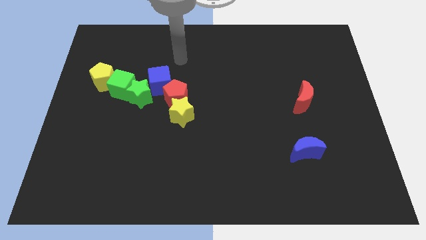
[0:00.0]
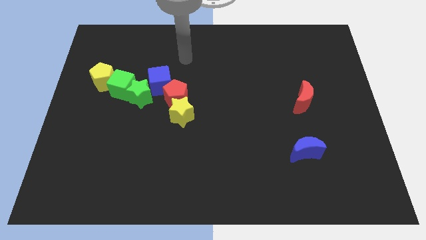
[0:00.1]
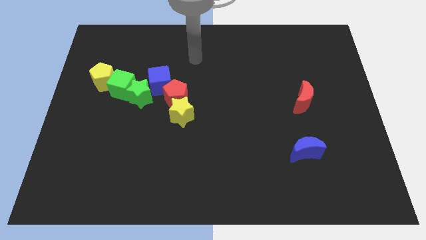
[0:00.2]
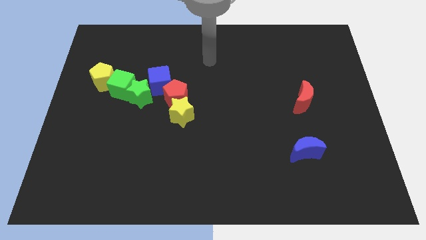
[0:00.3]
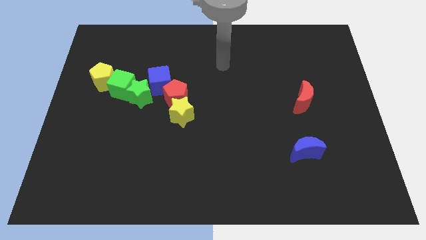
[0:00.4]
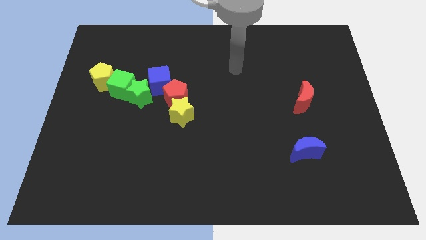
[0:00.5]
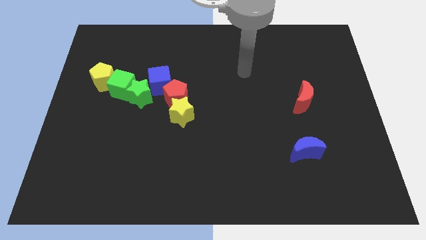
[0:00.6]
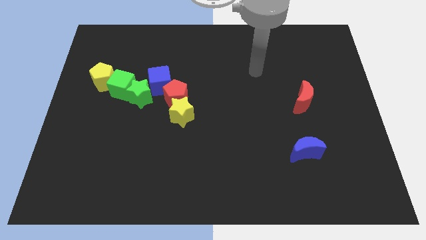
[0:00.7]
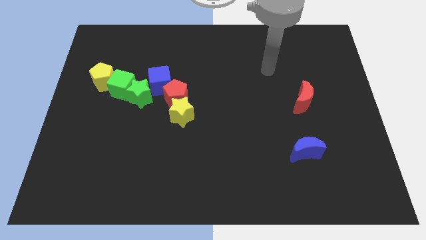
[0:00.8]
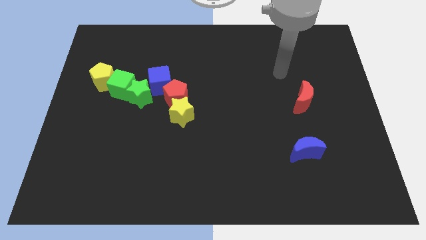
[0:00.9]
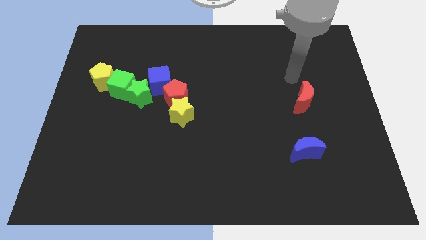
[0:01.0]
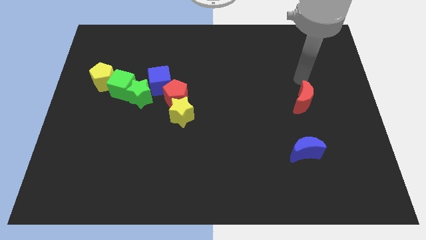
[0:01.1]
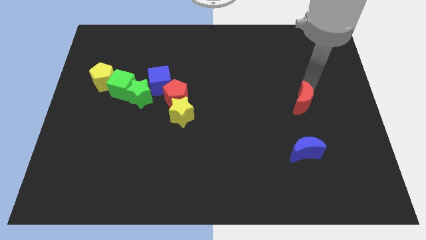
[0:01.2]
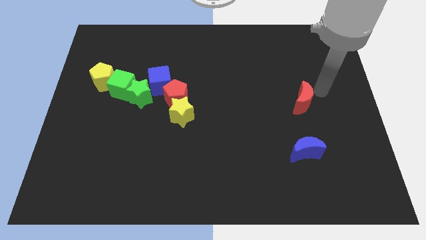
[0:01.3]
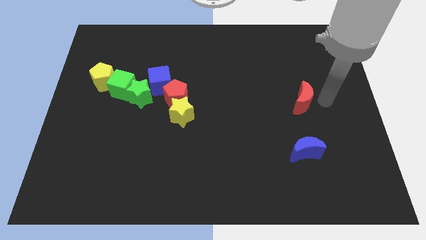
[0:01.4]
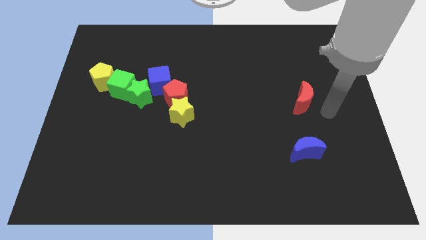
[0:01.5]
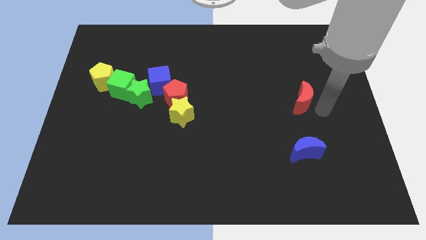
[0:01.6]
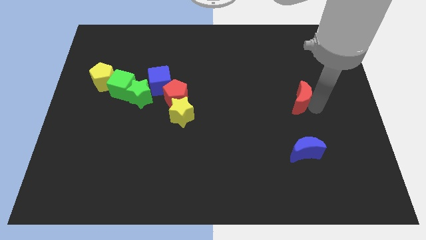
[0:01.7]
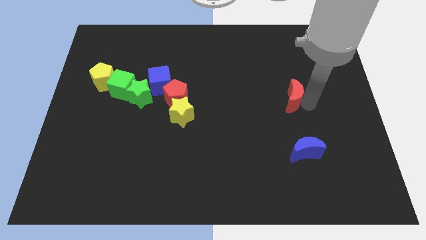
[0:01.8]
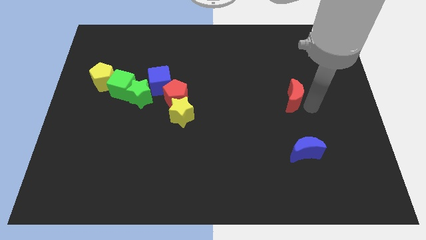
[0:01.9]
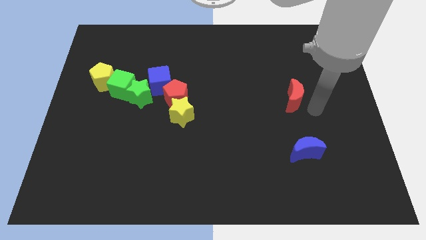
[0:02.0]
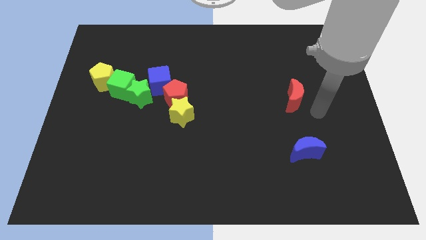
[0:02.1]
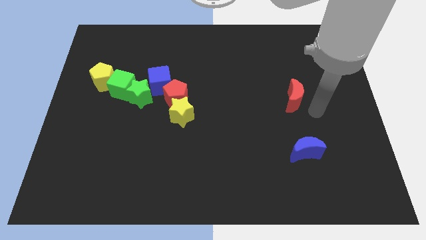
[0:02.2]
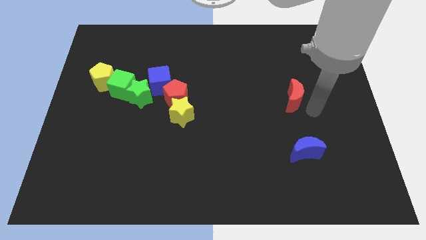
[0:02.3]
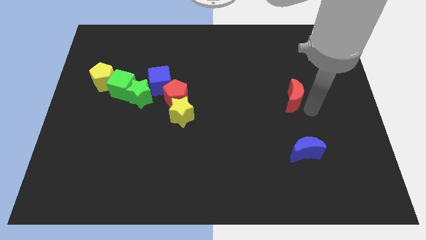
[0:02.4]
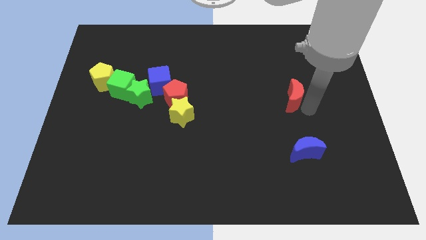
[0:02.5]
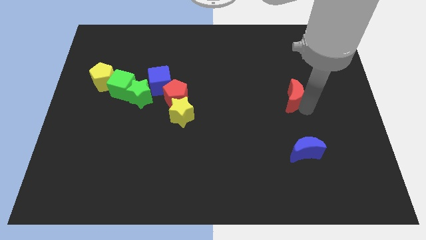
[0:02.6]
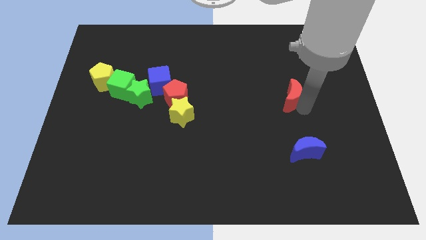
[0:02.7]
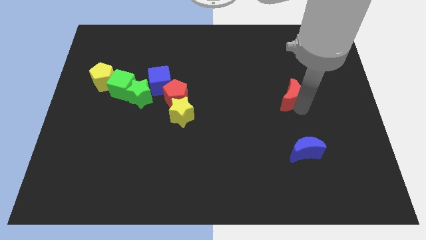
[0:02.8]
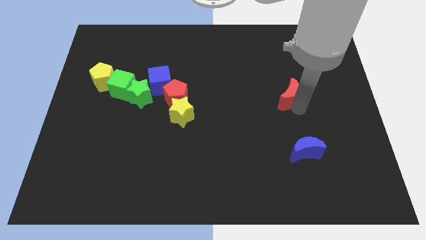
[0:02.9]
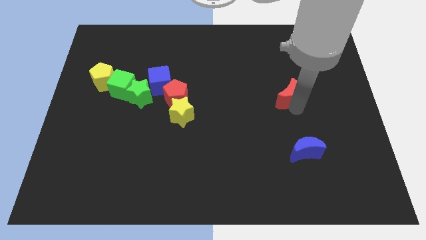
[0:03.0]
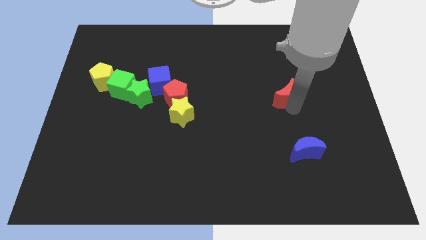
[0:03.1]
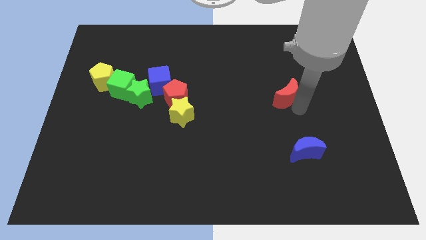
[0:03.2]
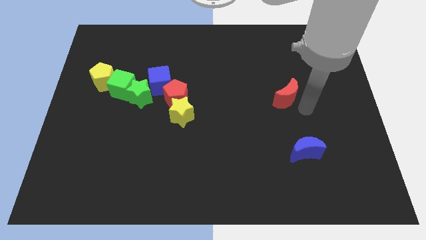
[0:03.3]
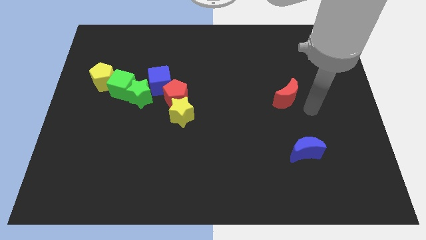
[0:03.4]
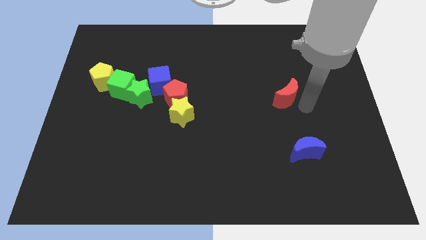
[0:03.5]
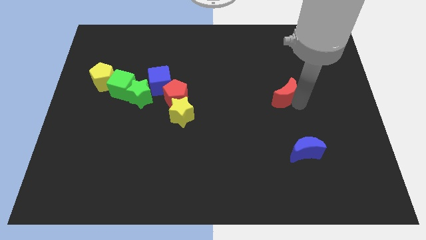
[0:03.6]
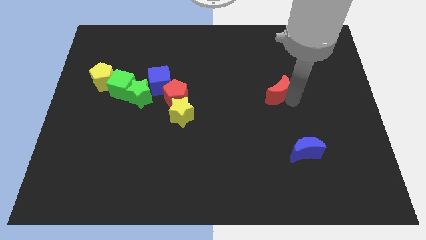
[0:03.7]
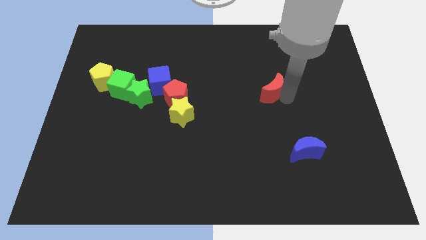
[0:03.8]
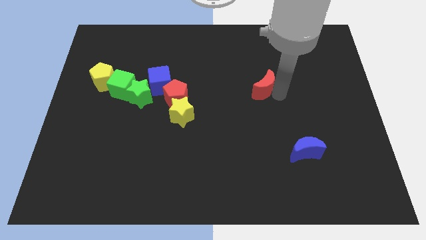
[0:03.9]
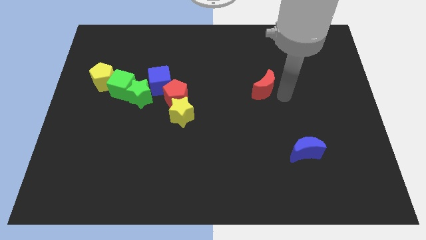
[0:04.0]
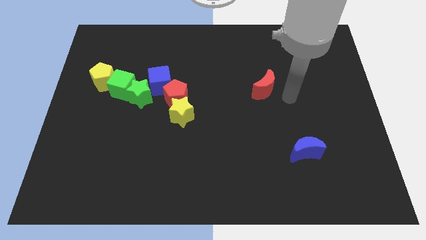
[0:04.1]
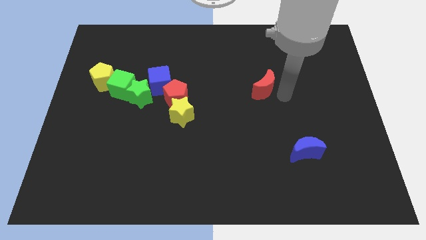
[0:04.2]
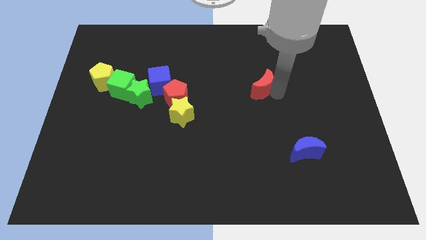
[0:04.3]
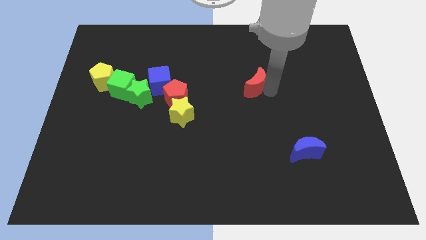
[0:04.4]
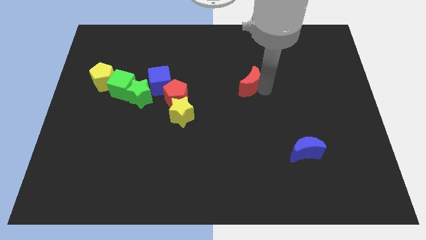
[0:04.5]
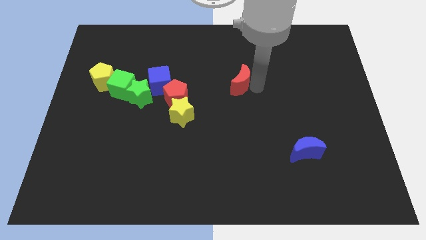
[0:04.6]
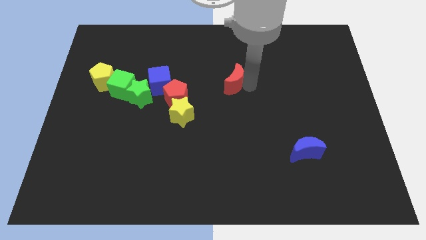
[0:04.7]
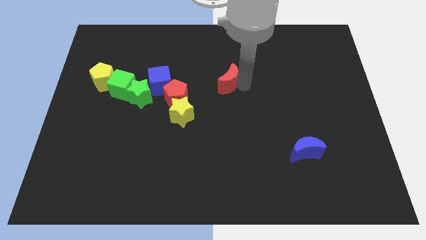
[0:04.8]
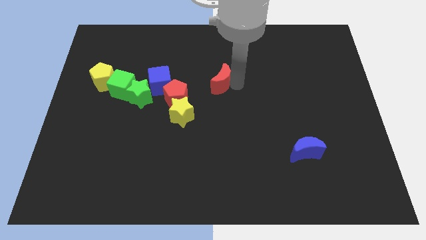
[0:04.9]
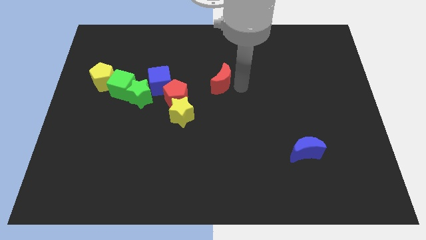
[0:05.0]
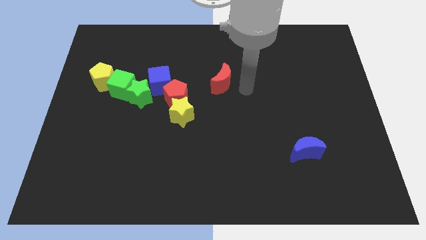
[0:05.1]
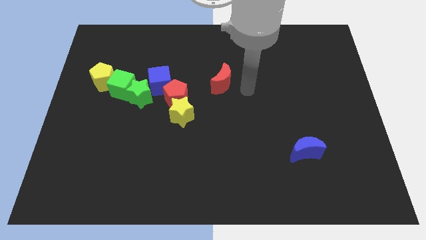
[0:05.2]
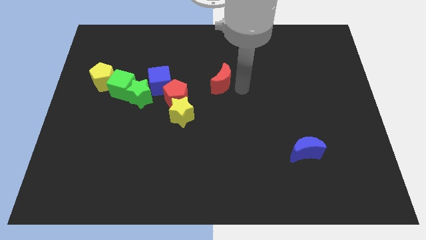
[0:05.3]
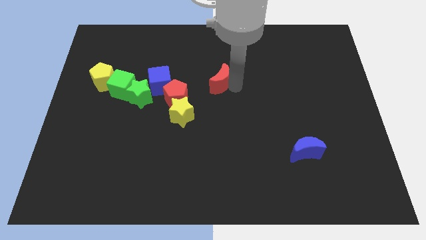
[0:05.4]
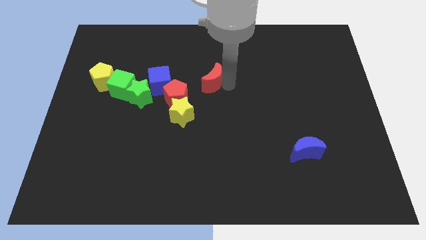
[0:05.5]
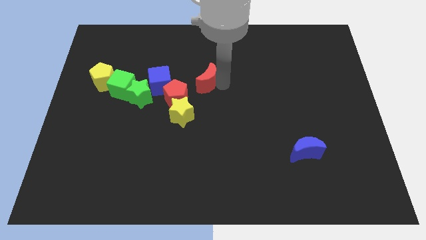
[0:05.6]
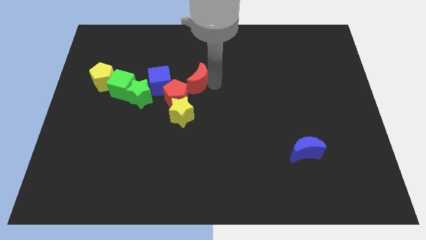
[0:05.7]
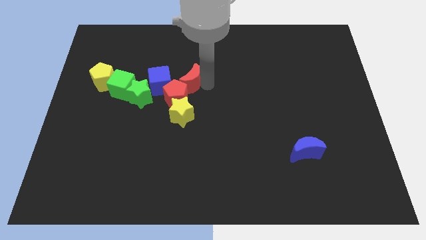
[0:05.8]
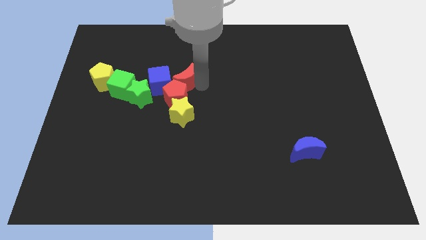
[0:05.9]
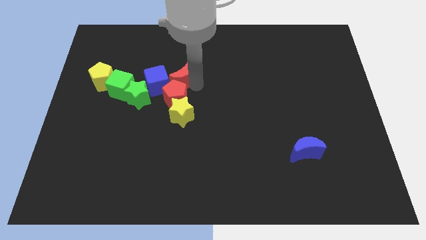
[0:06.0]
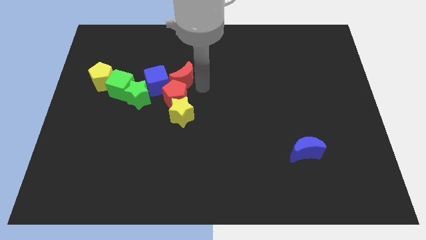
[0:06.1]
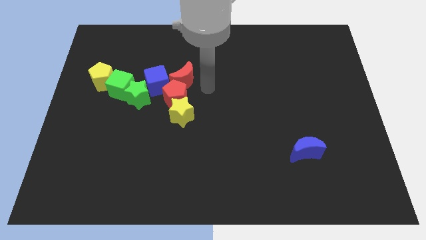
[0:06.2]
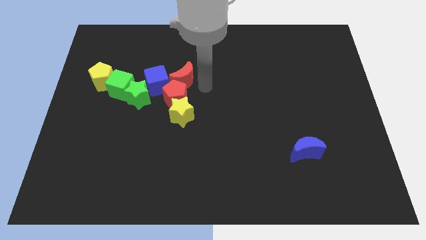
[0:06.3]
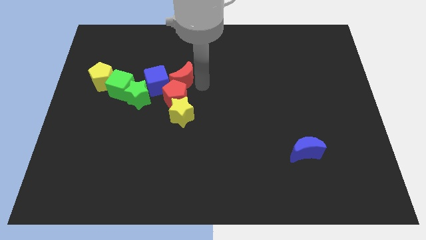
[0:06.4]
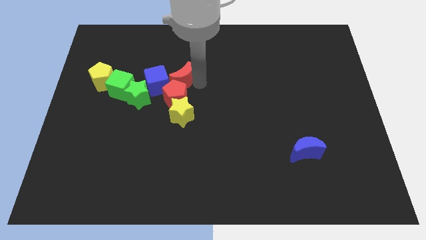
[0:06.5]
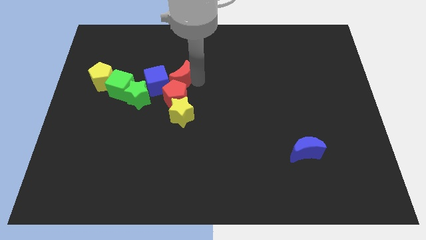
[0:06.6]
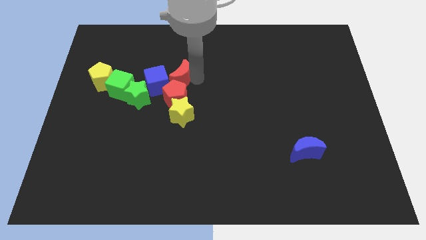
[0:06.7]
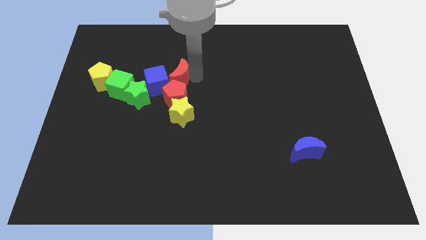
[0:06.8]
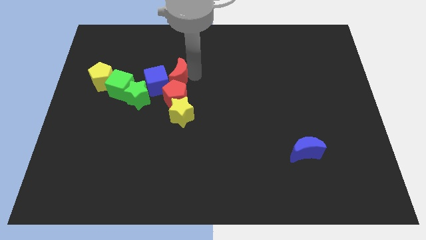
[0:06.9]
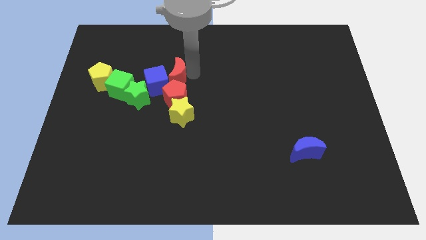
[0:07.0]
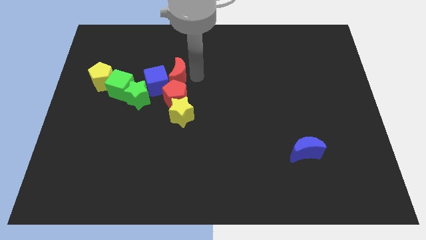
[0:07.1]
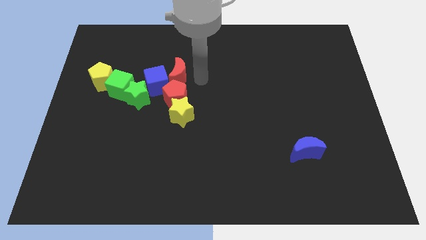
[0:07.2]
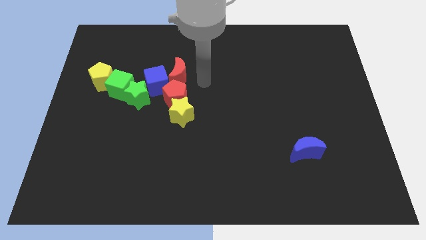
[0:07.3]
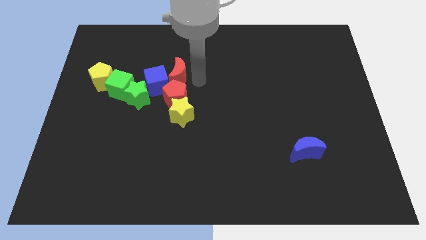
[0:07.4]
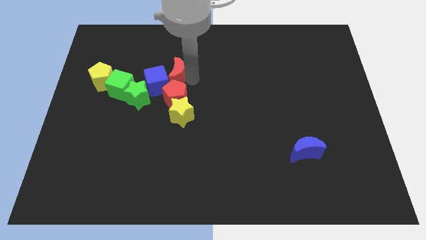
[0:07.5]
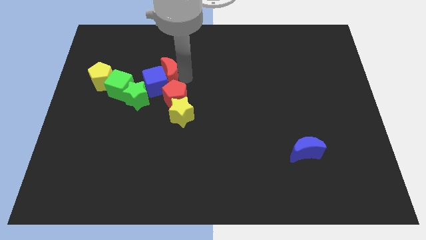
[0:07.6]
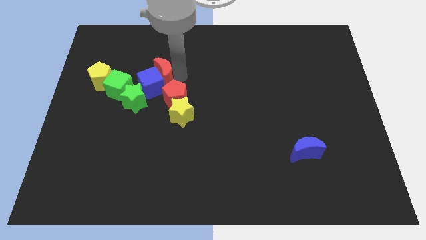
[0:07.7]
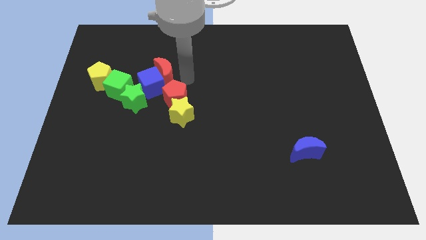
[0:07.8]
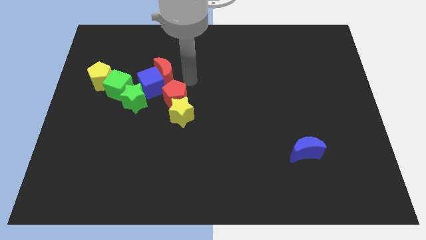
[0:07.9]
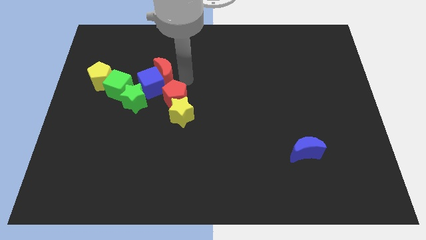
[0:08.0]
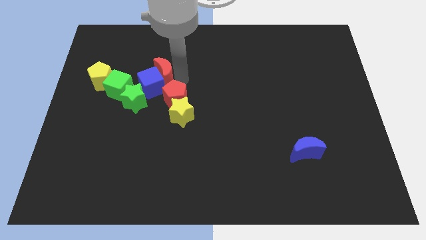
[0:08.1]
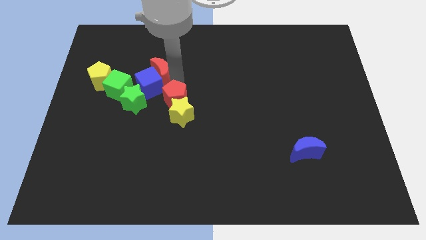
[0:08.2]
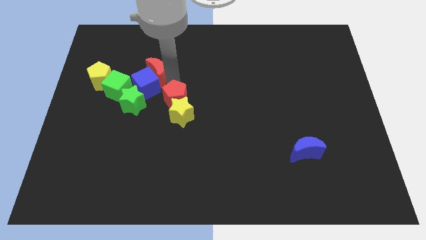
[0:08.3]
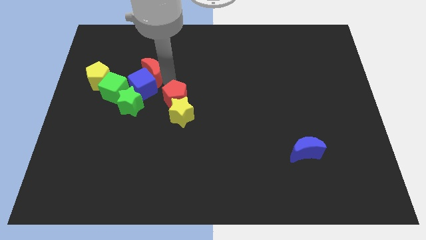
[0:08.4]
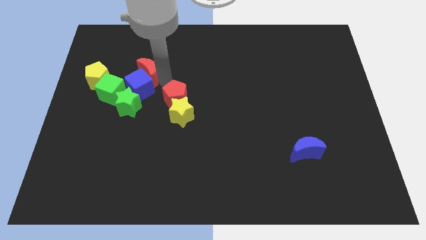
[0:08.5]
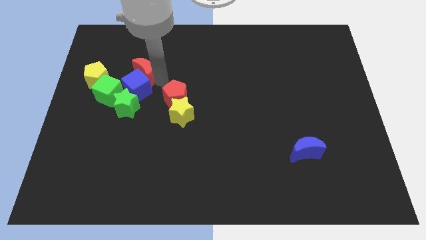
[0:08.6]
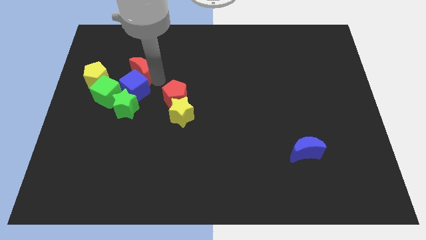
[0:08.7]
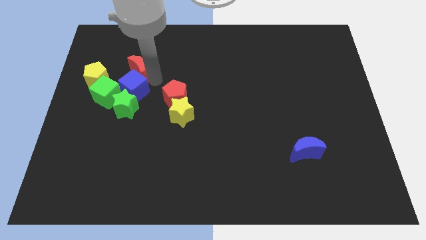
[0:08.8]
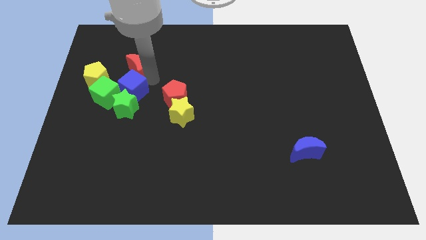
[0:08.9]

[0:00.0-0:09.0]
move the red moon to the top right of the yellow pentagon
